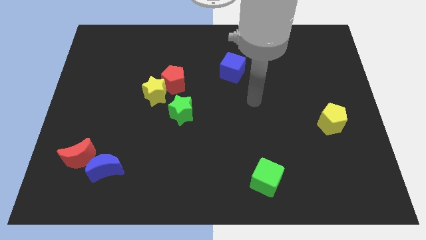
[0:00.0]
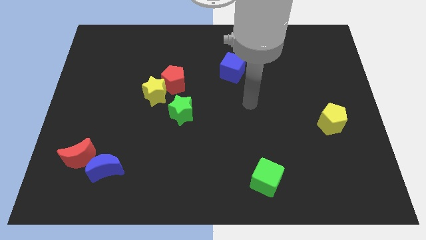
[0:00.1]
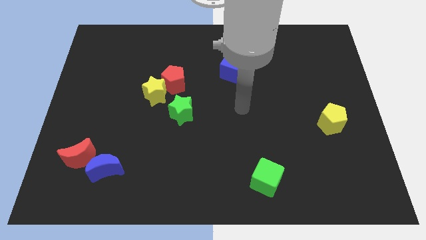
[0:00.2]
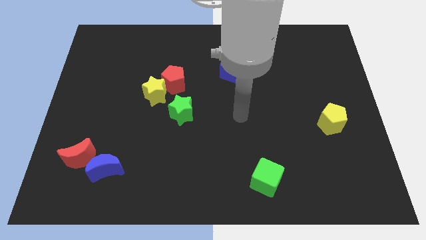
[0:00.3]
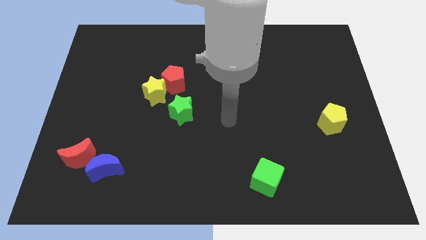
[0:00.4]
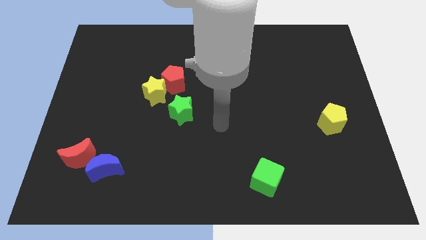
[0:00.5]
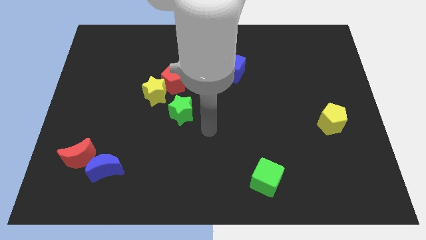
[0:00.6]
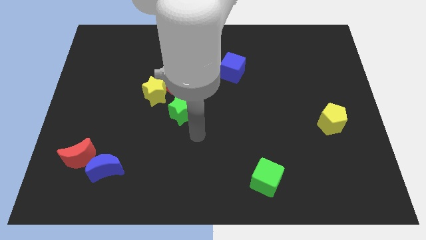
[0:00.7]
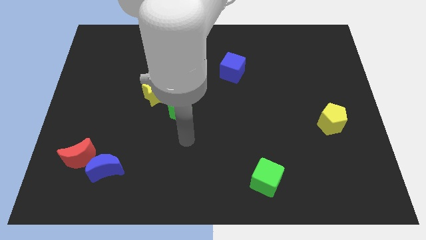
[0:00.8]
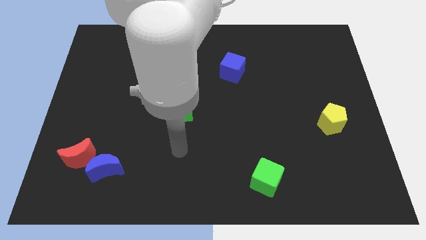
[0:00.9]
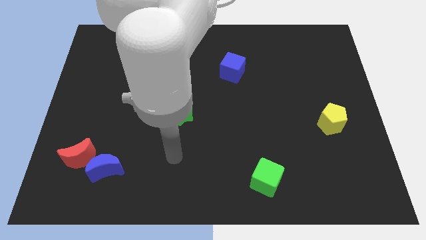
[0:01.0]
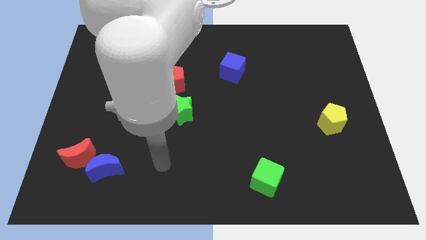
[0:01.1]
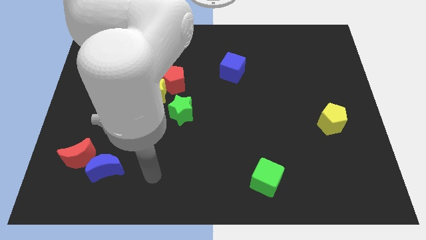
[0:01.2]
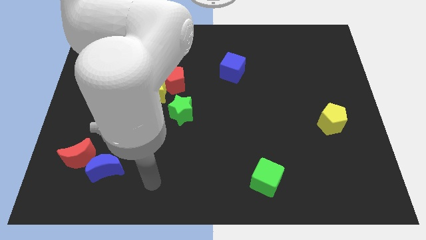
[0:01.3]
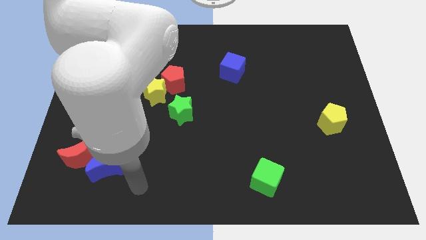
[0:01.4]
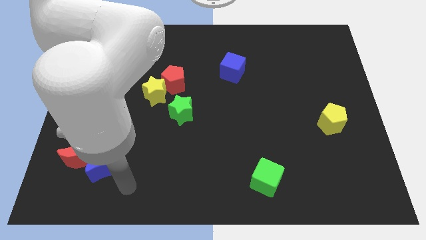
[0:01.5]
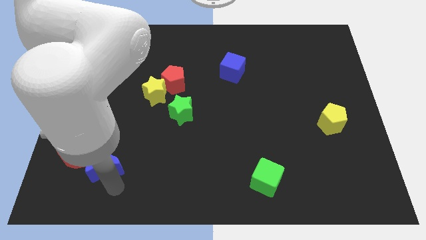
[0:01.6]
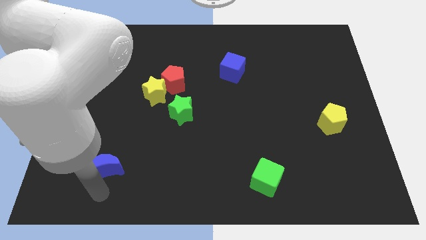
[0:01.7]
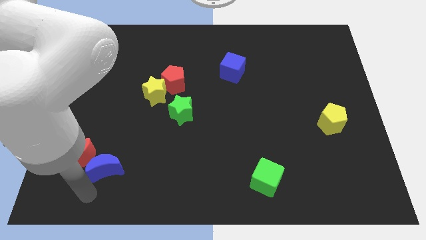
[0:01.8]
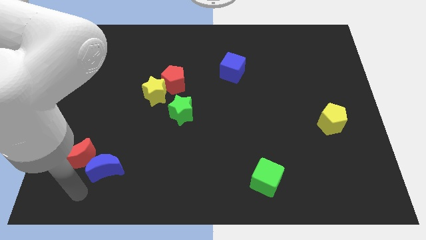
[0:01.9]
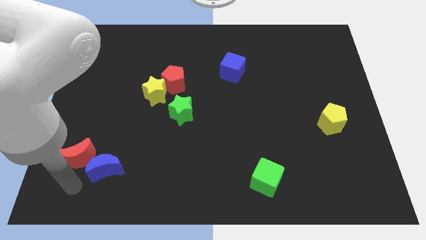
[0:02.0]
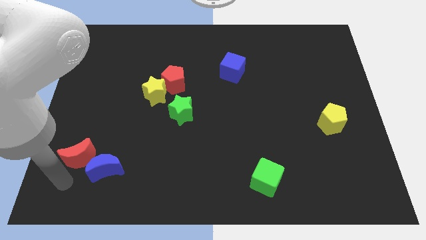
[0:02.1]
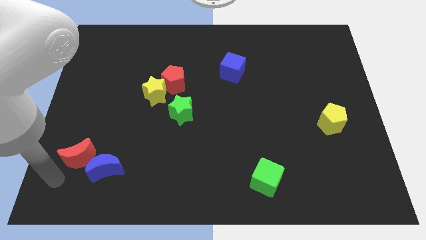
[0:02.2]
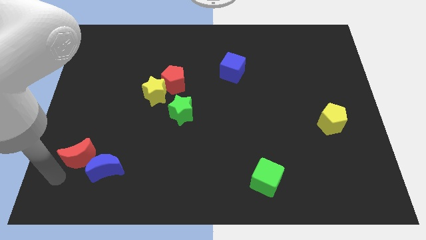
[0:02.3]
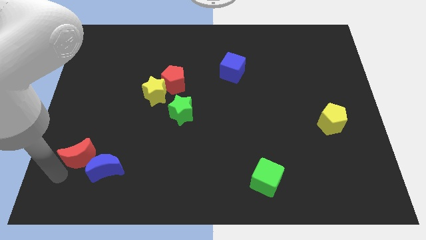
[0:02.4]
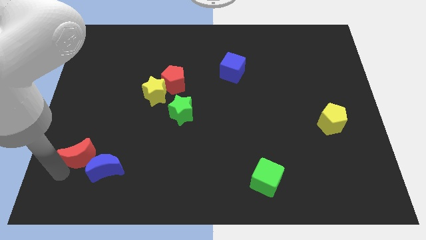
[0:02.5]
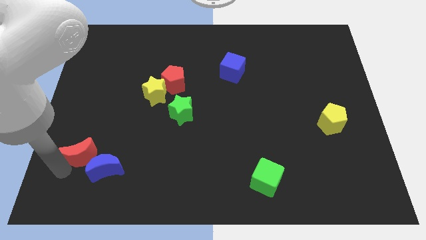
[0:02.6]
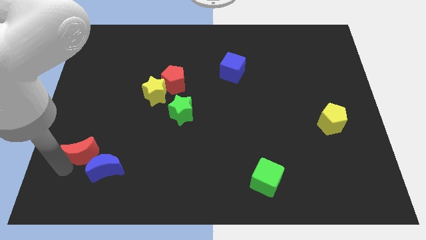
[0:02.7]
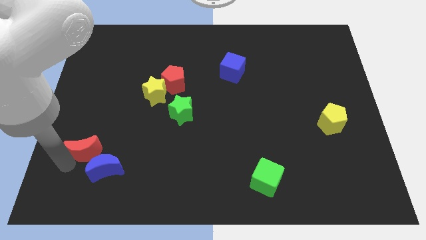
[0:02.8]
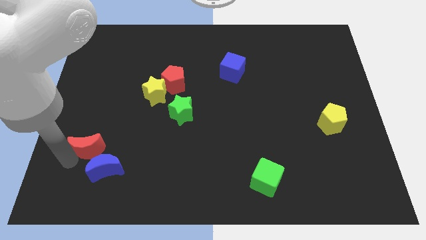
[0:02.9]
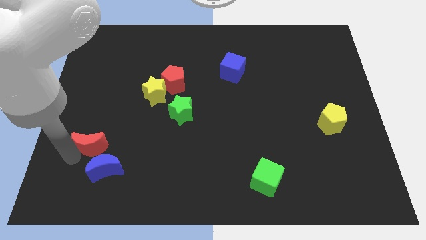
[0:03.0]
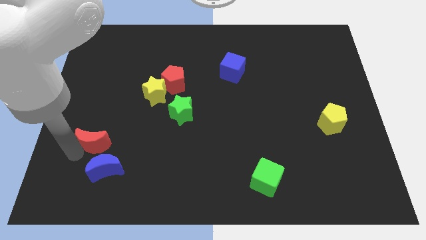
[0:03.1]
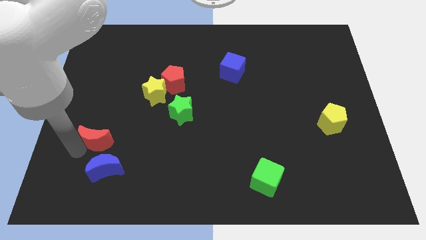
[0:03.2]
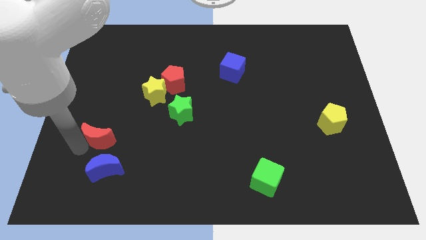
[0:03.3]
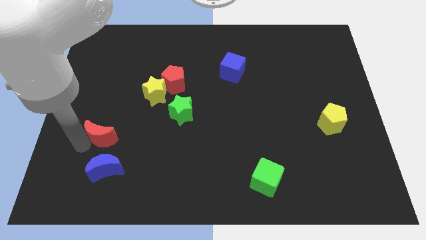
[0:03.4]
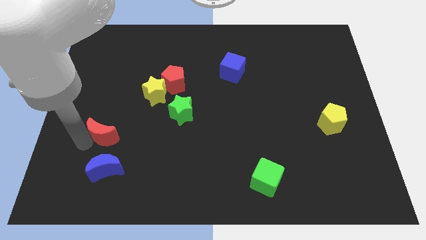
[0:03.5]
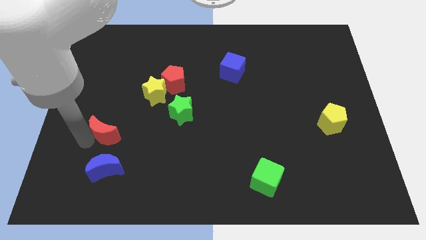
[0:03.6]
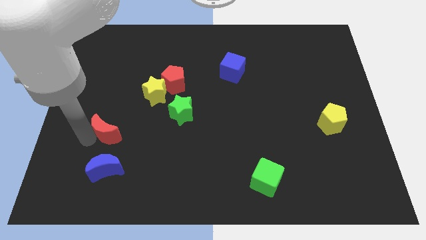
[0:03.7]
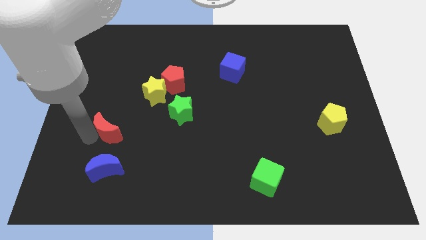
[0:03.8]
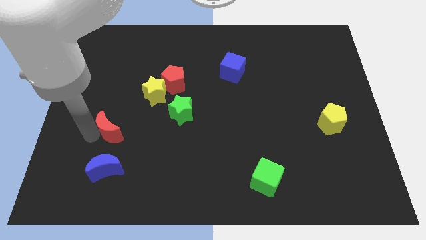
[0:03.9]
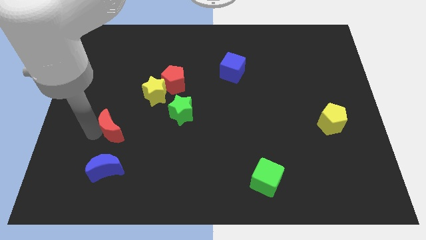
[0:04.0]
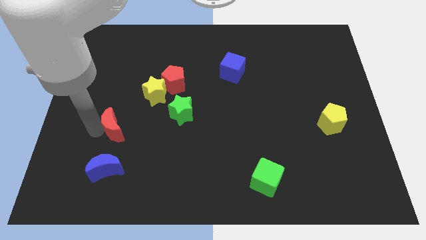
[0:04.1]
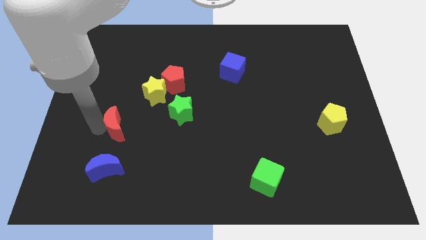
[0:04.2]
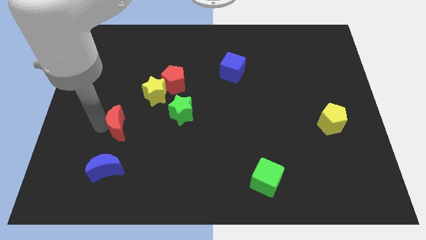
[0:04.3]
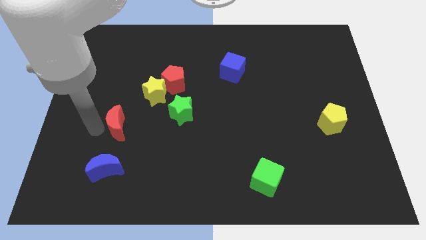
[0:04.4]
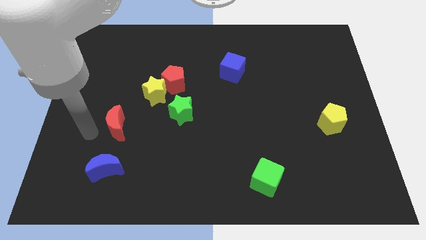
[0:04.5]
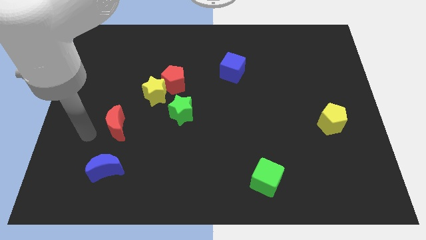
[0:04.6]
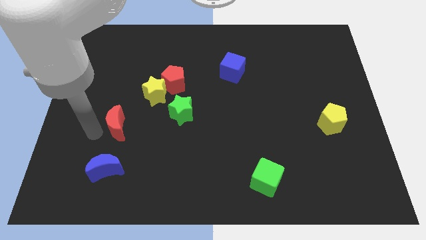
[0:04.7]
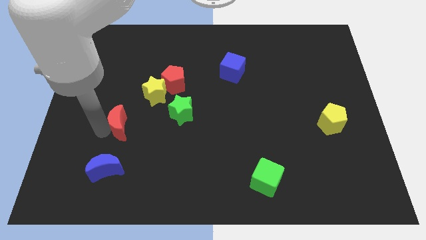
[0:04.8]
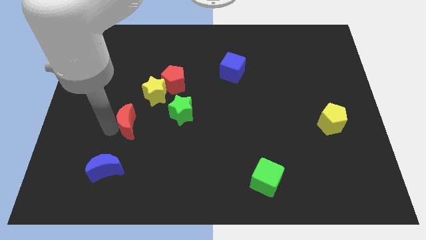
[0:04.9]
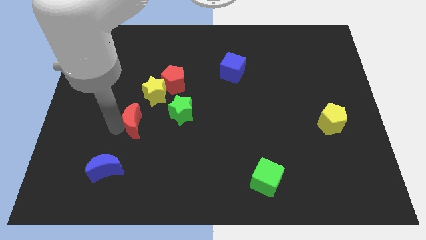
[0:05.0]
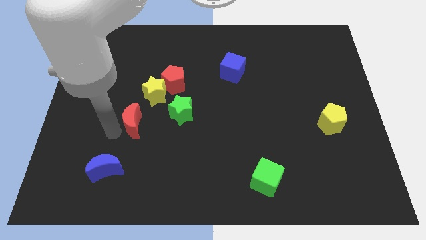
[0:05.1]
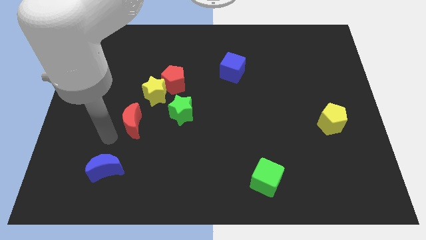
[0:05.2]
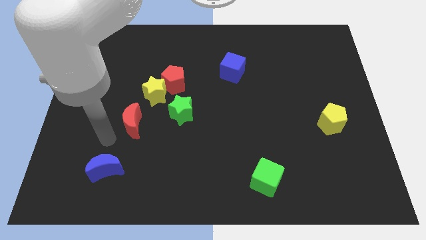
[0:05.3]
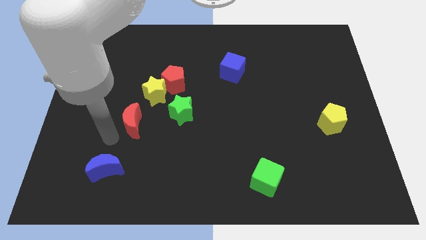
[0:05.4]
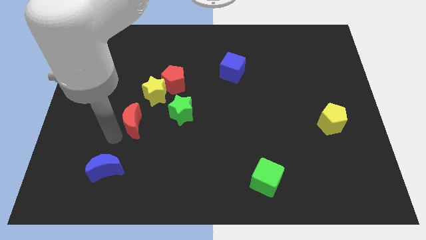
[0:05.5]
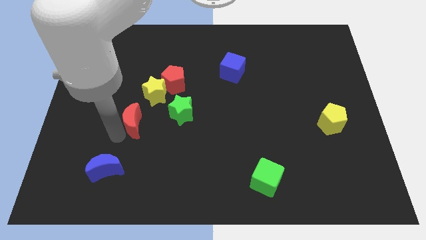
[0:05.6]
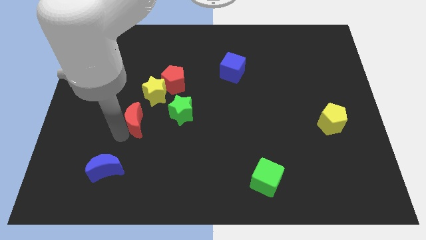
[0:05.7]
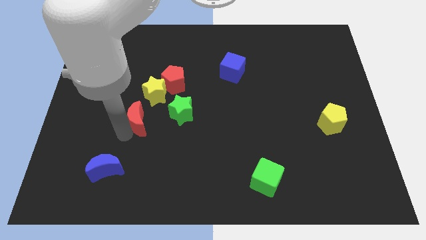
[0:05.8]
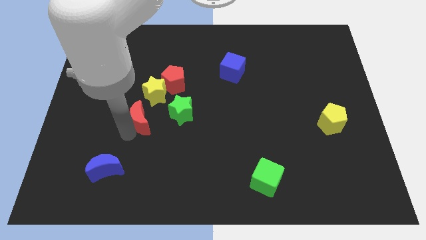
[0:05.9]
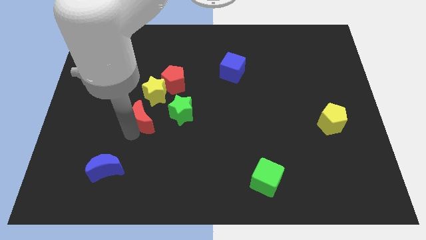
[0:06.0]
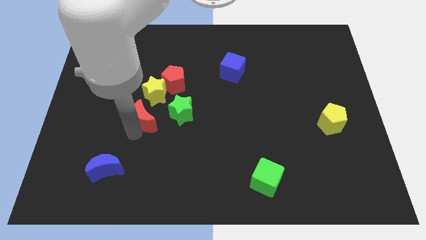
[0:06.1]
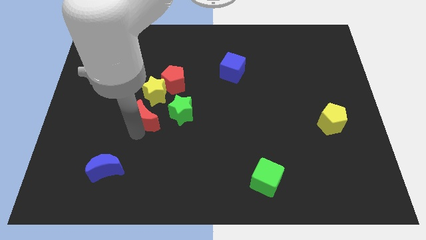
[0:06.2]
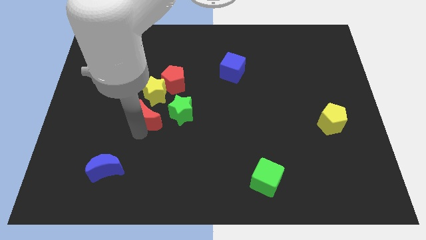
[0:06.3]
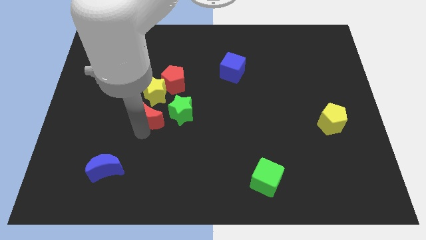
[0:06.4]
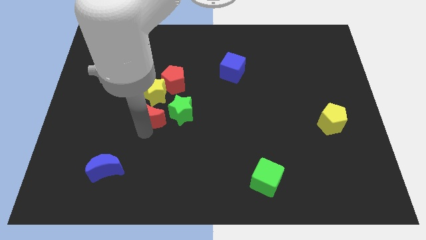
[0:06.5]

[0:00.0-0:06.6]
slide the red moon below the red pentagon

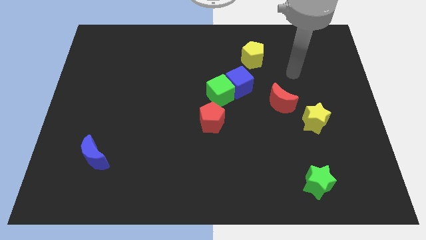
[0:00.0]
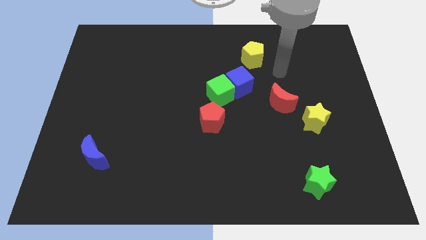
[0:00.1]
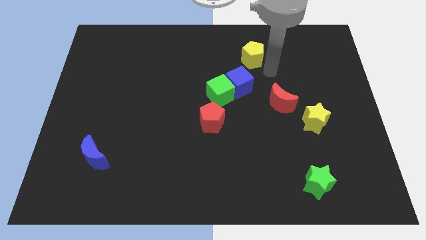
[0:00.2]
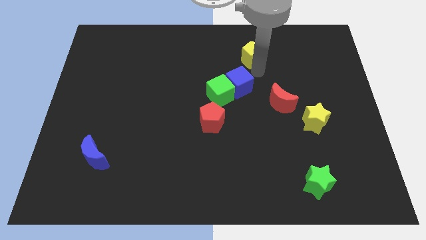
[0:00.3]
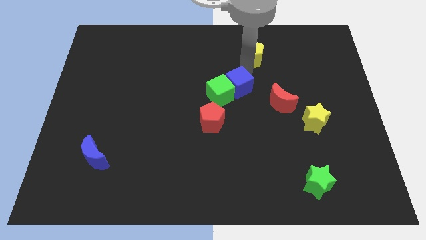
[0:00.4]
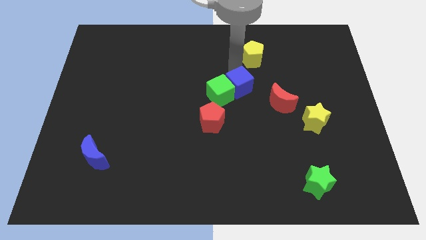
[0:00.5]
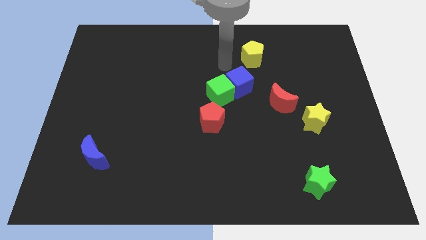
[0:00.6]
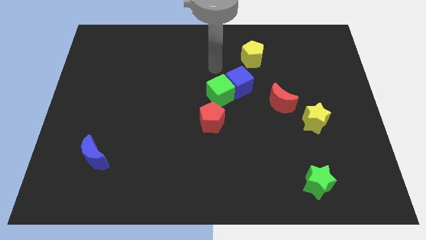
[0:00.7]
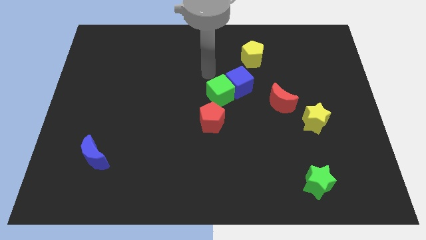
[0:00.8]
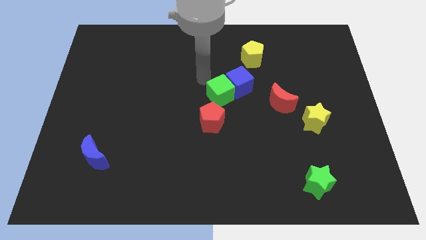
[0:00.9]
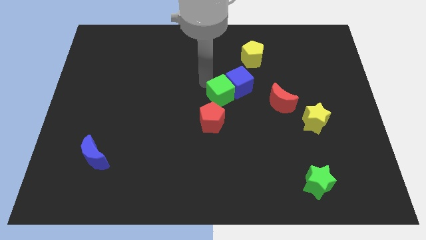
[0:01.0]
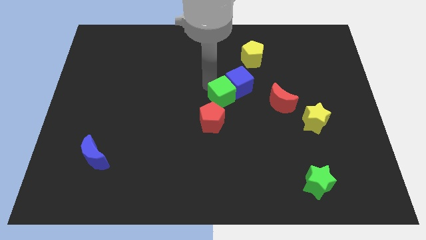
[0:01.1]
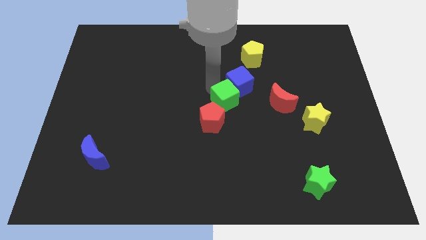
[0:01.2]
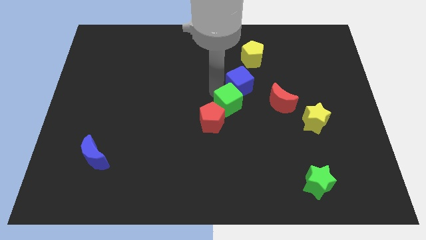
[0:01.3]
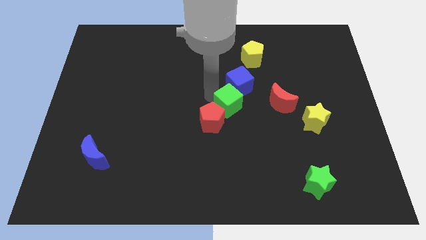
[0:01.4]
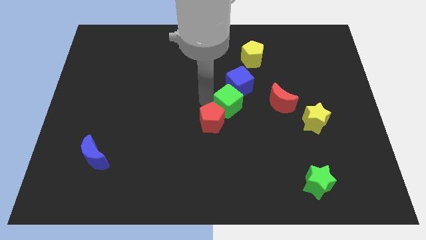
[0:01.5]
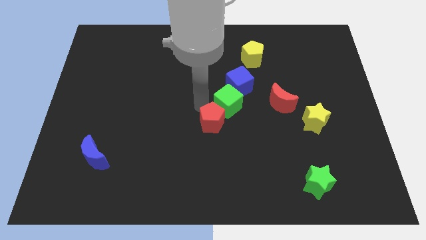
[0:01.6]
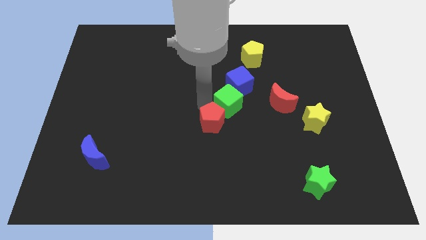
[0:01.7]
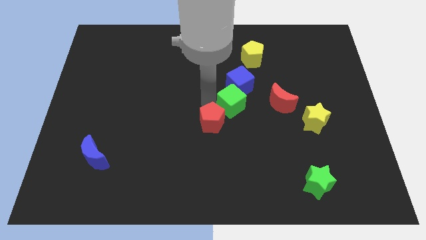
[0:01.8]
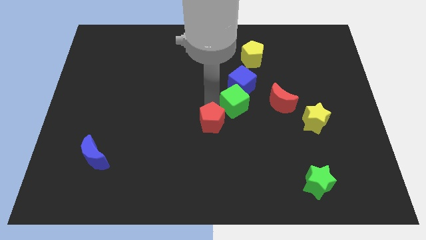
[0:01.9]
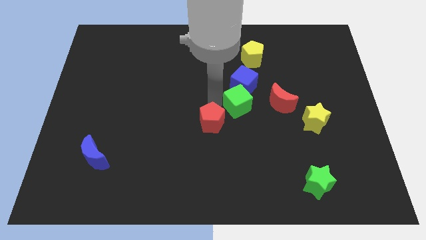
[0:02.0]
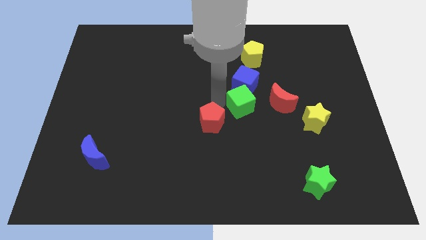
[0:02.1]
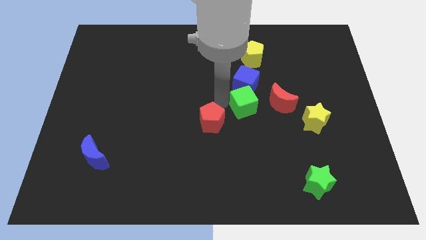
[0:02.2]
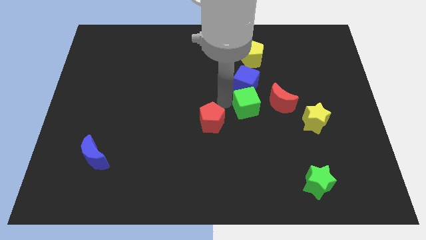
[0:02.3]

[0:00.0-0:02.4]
slide the green cube diagonally down and to the right of the blue cube
